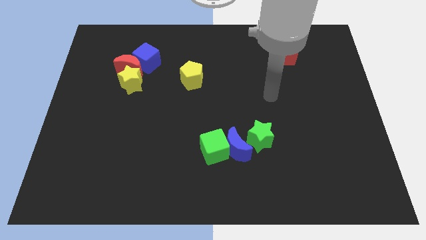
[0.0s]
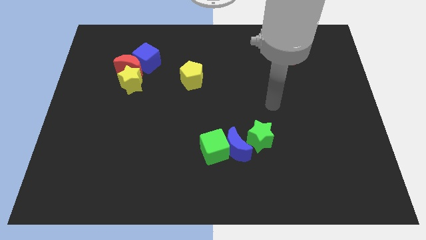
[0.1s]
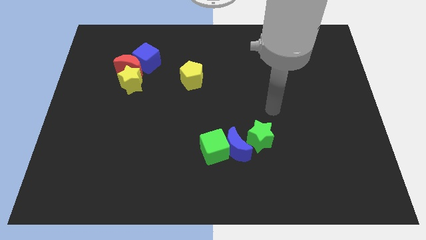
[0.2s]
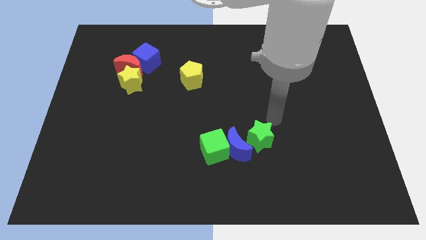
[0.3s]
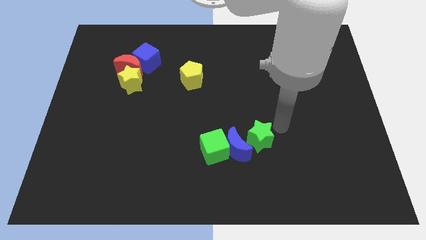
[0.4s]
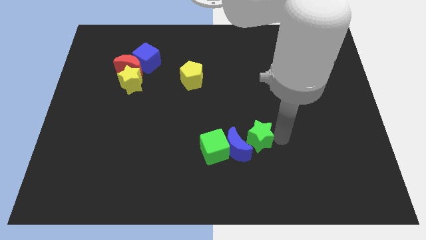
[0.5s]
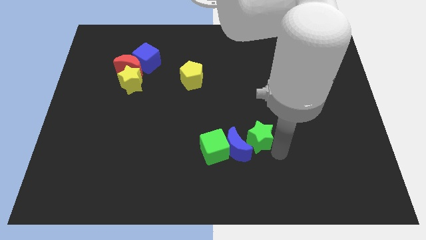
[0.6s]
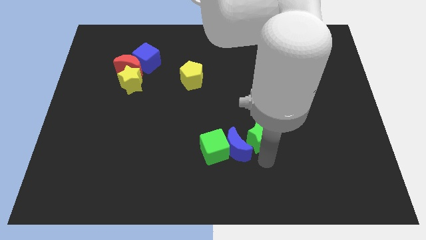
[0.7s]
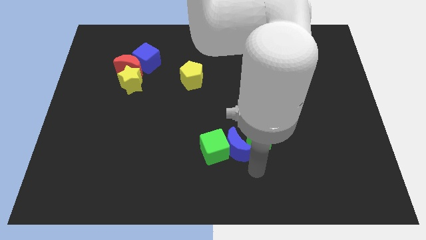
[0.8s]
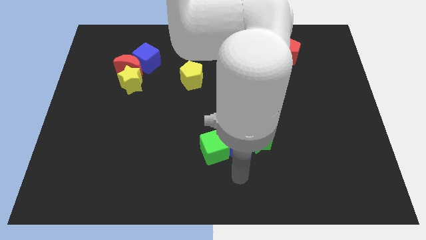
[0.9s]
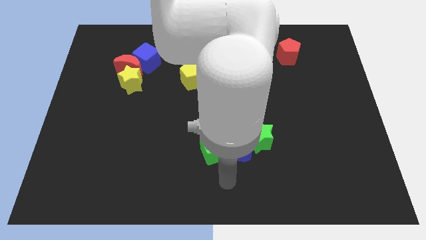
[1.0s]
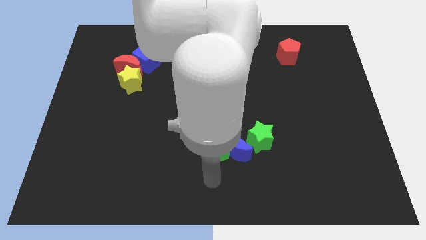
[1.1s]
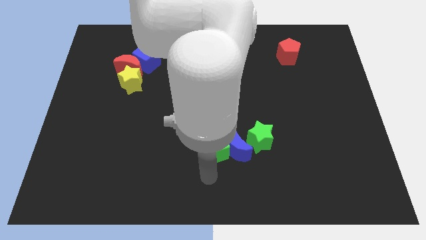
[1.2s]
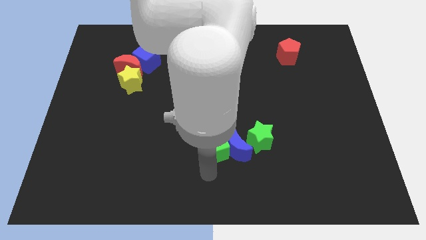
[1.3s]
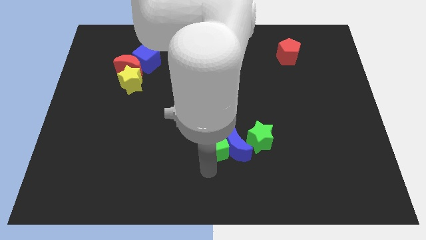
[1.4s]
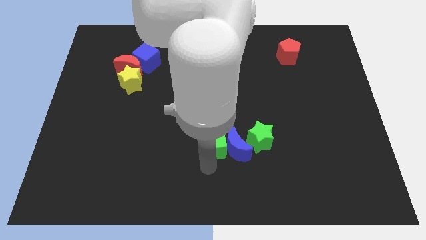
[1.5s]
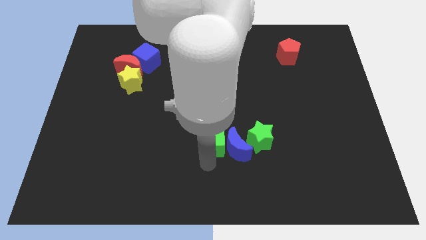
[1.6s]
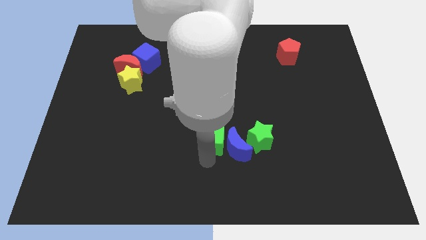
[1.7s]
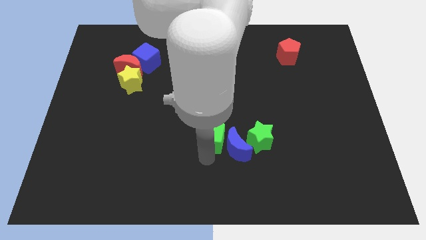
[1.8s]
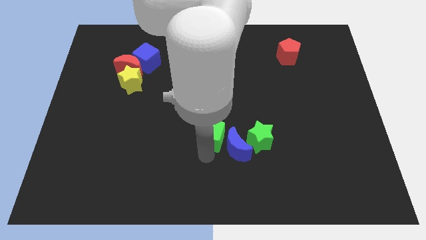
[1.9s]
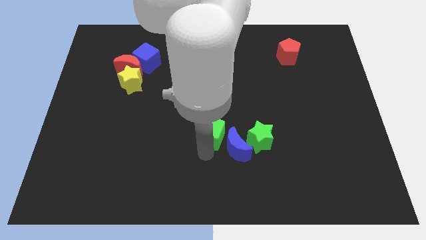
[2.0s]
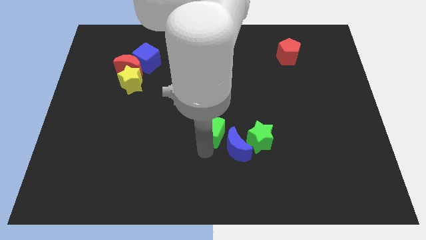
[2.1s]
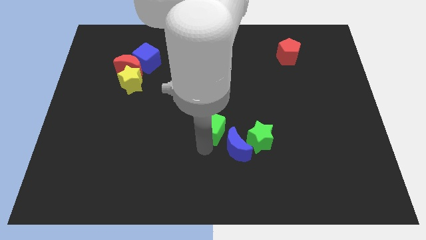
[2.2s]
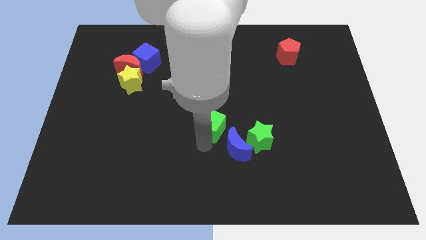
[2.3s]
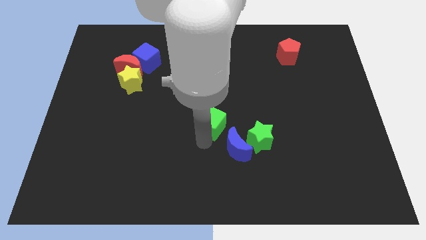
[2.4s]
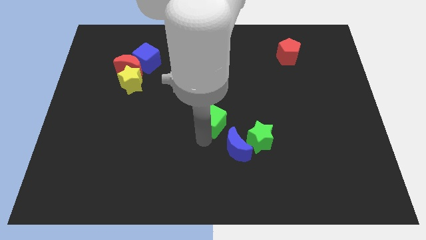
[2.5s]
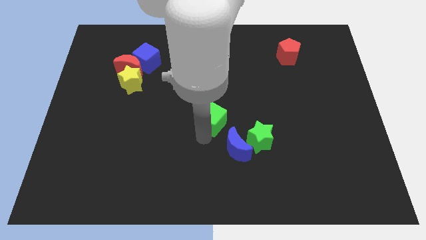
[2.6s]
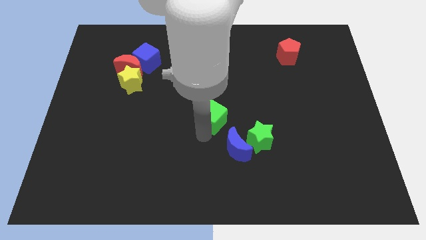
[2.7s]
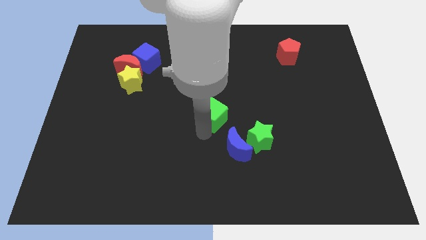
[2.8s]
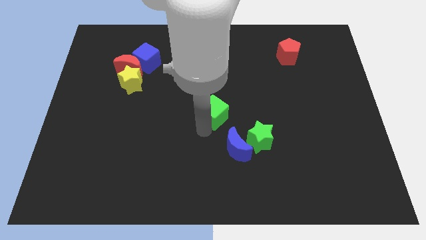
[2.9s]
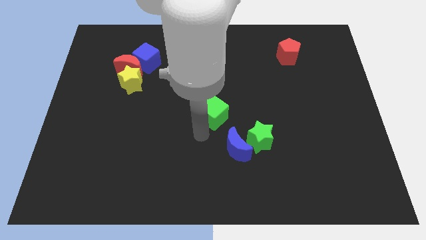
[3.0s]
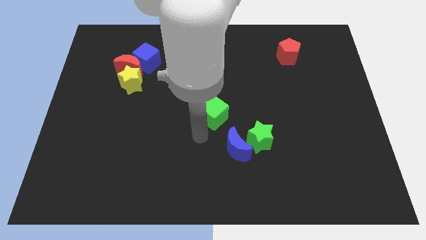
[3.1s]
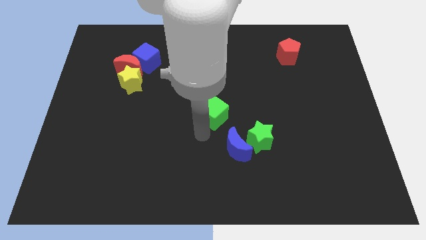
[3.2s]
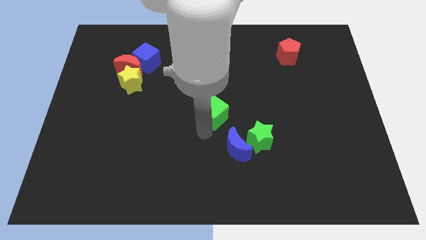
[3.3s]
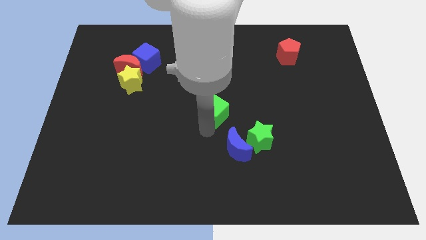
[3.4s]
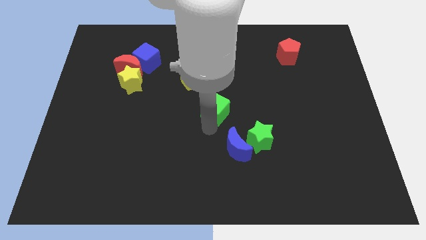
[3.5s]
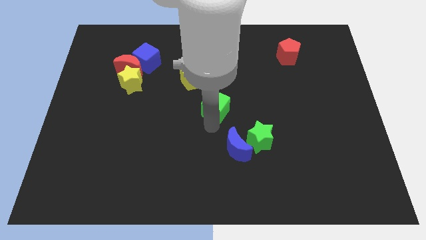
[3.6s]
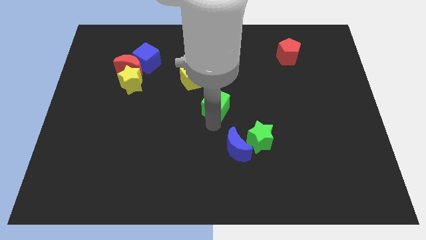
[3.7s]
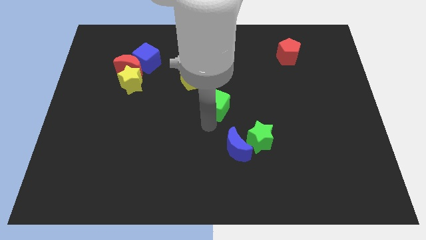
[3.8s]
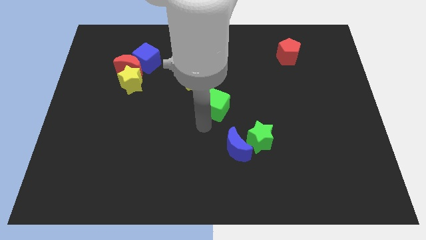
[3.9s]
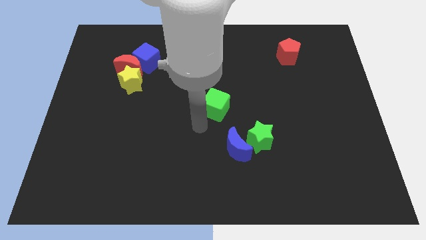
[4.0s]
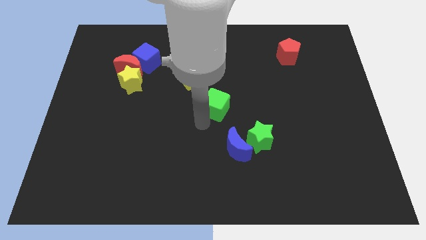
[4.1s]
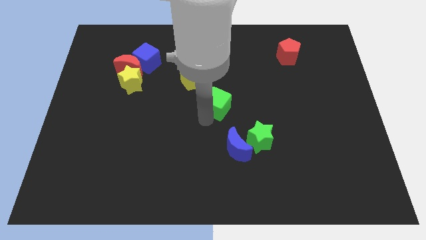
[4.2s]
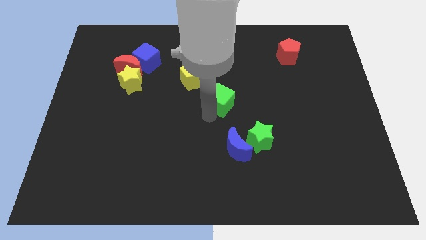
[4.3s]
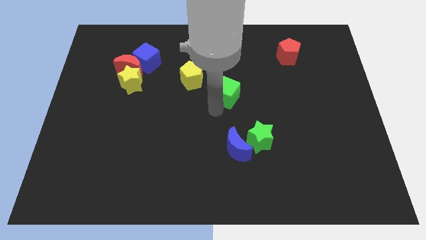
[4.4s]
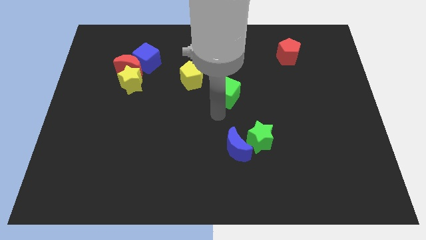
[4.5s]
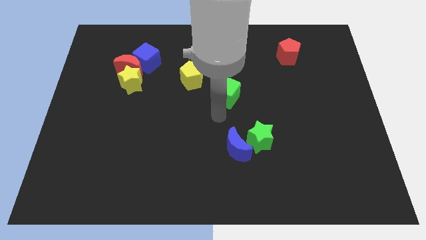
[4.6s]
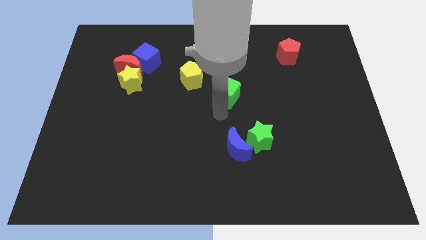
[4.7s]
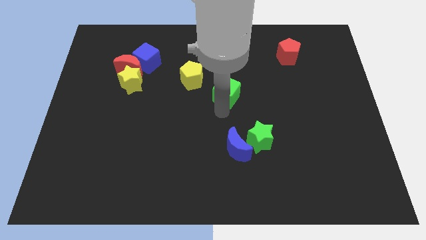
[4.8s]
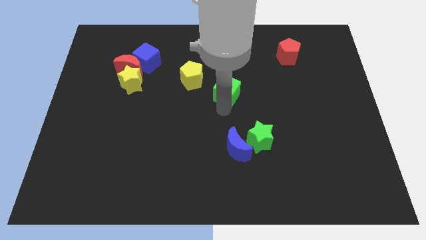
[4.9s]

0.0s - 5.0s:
move the green cube just right of the yellow pentagon

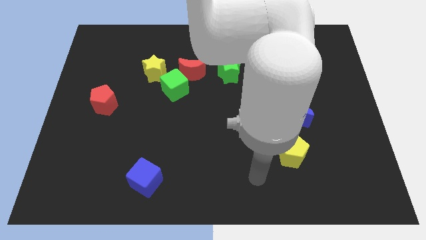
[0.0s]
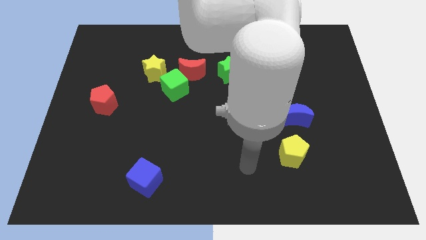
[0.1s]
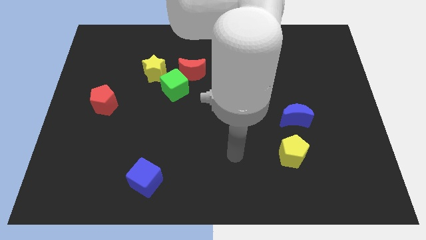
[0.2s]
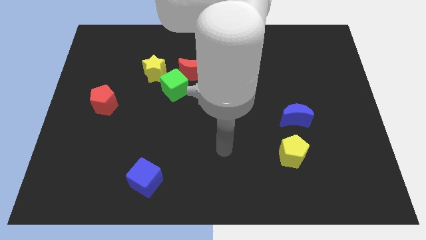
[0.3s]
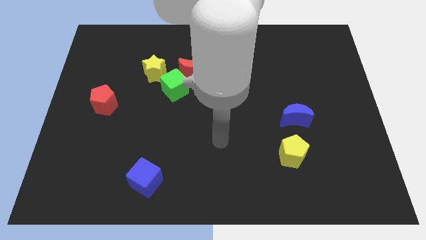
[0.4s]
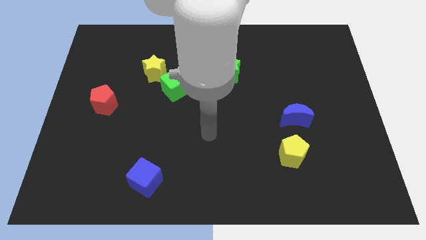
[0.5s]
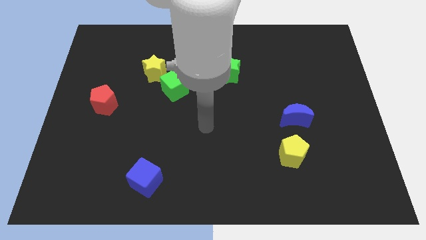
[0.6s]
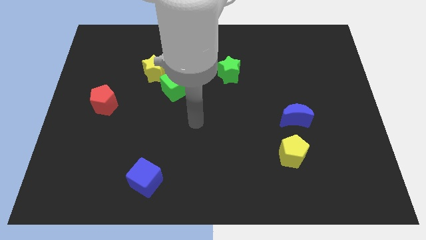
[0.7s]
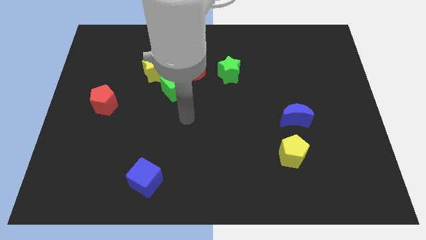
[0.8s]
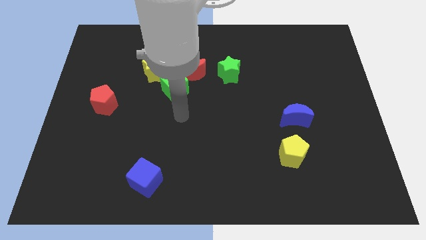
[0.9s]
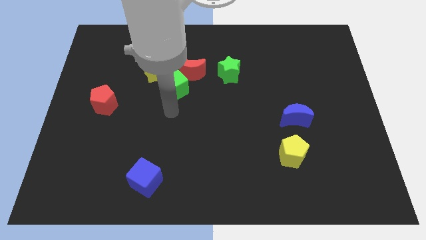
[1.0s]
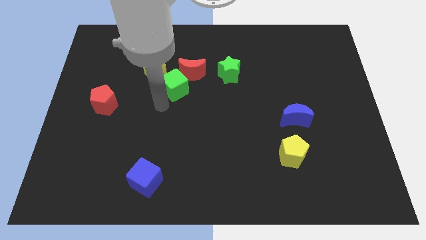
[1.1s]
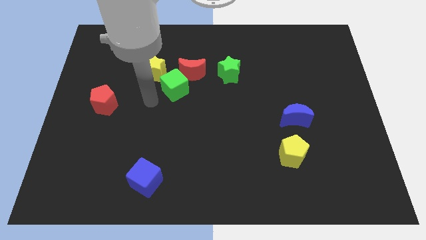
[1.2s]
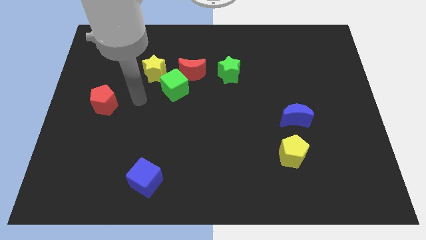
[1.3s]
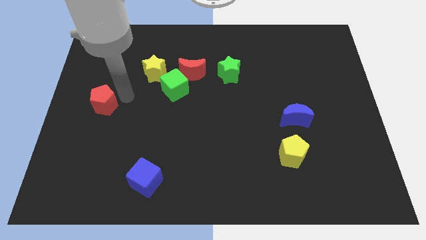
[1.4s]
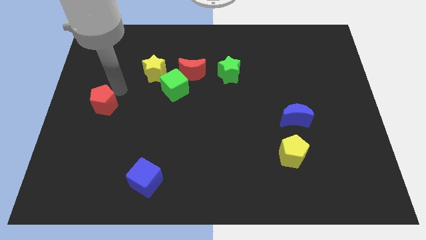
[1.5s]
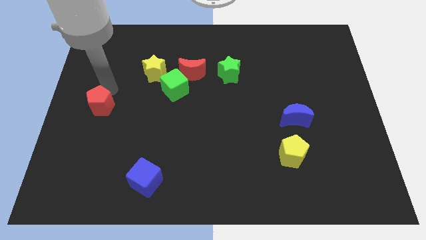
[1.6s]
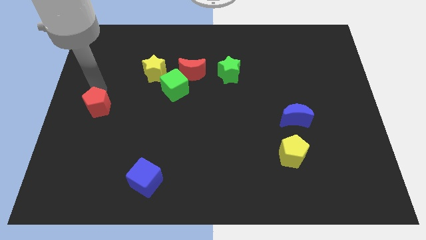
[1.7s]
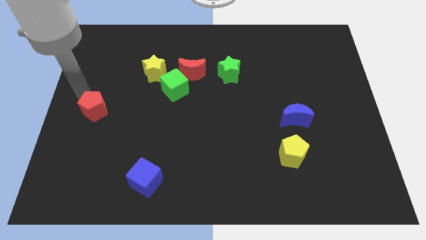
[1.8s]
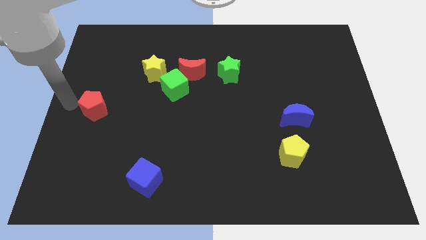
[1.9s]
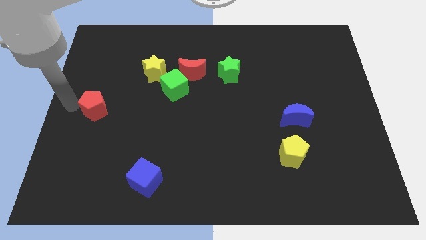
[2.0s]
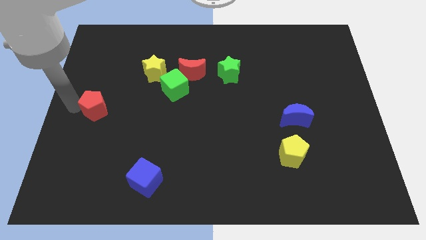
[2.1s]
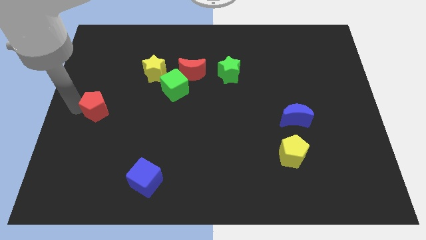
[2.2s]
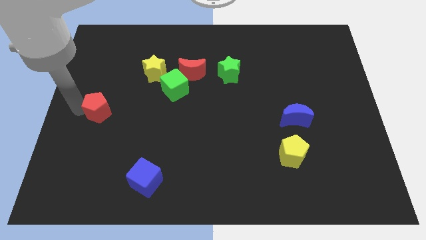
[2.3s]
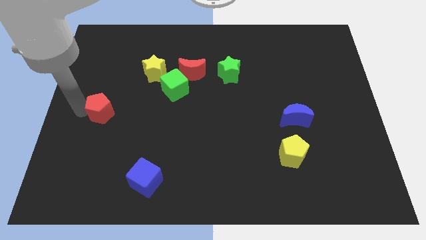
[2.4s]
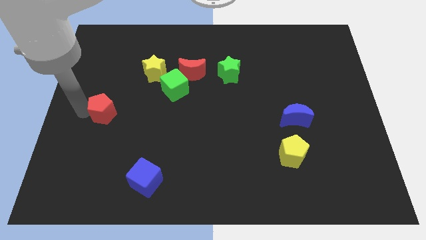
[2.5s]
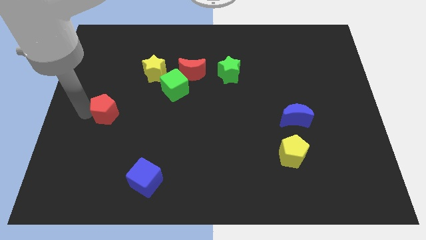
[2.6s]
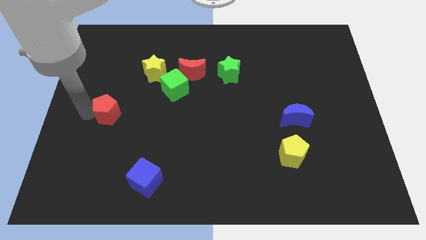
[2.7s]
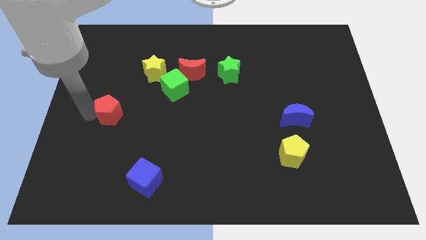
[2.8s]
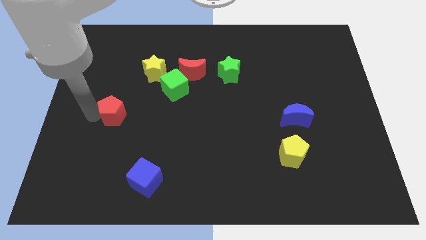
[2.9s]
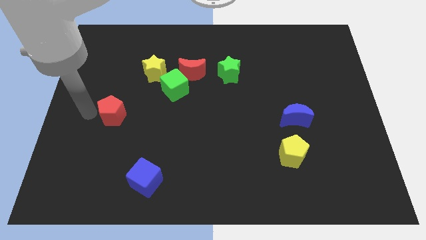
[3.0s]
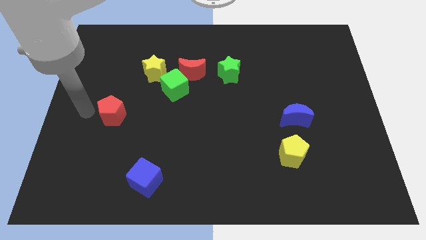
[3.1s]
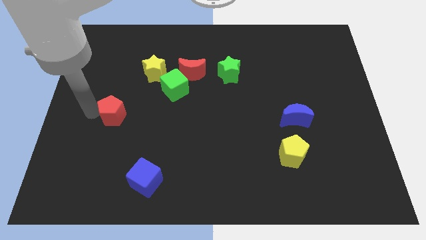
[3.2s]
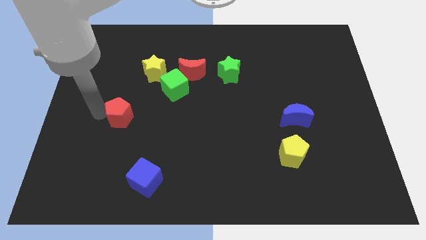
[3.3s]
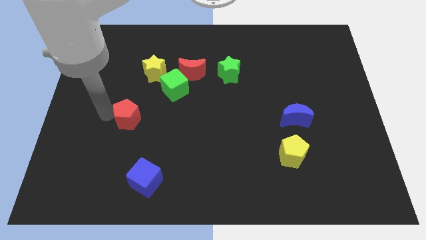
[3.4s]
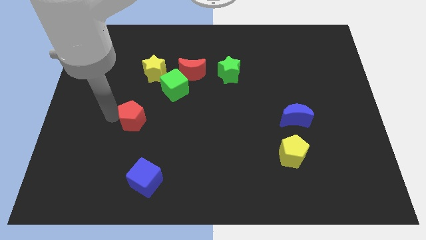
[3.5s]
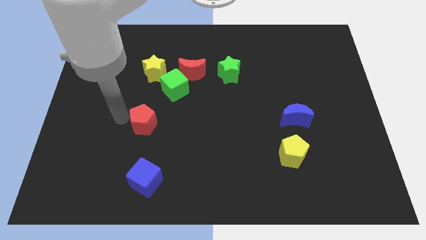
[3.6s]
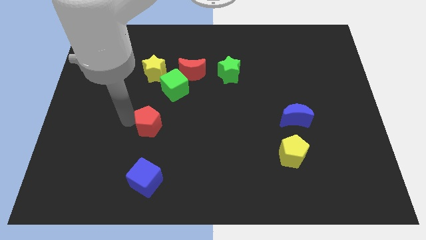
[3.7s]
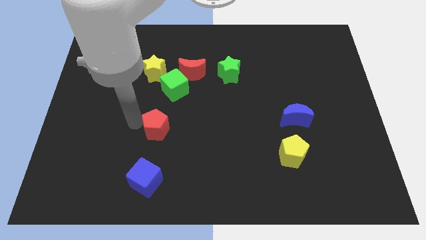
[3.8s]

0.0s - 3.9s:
move the red pentagon below the green cube
